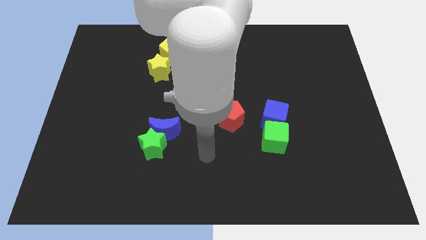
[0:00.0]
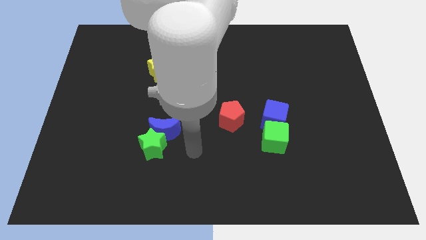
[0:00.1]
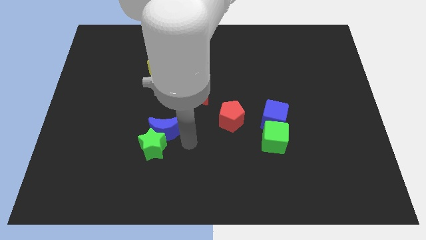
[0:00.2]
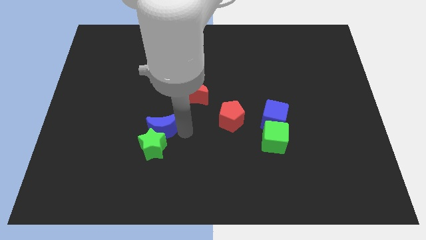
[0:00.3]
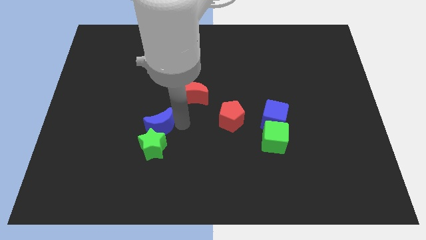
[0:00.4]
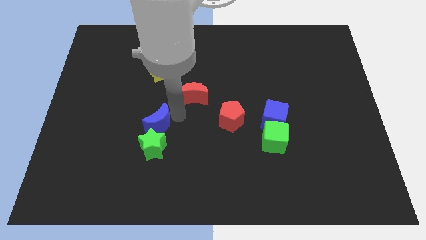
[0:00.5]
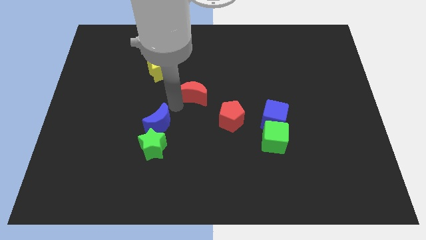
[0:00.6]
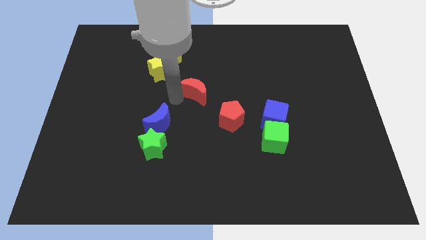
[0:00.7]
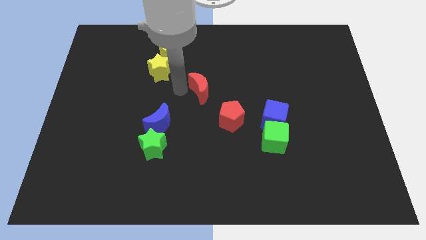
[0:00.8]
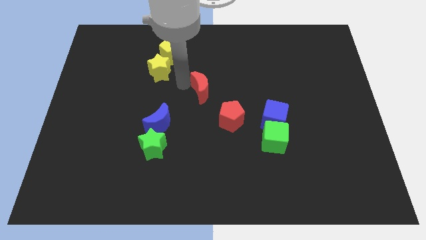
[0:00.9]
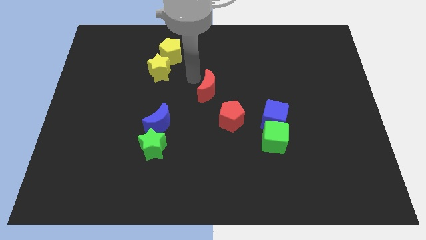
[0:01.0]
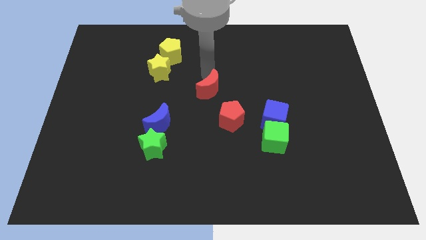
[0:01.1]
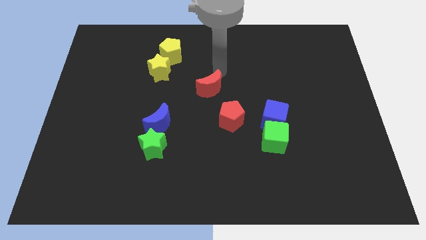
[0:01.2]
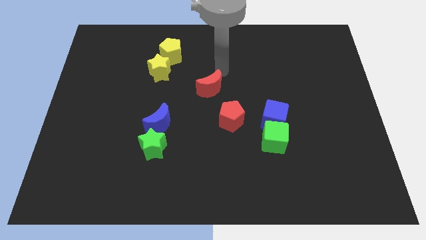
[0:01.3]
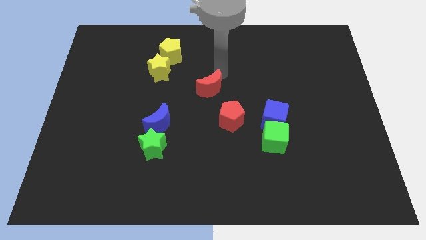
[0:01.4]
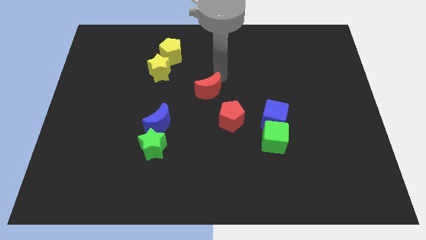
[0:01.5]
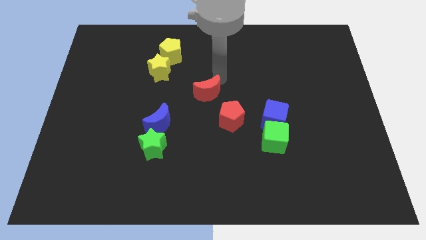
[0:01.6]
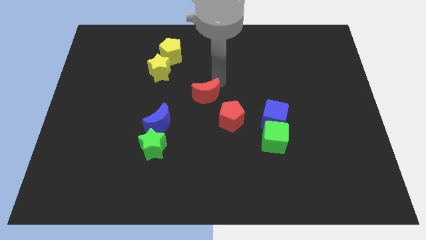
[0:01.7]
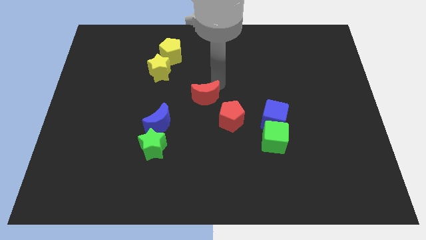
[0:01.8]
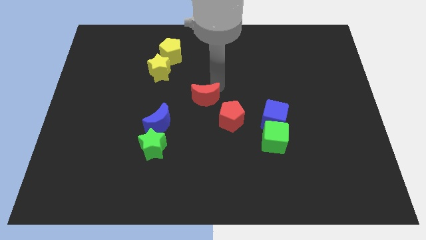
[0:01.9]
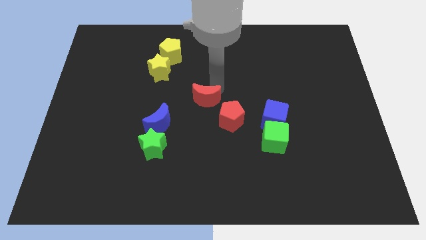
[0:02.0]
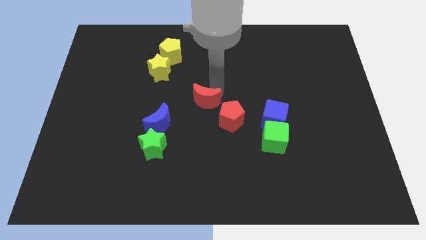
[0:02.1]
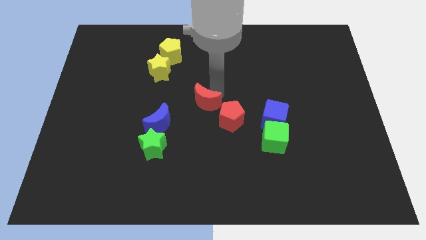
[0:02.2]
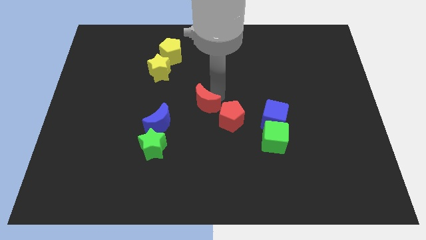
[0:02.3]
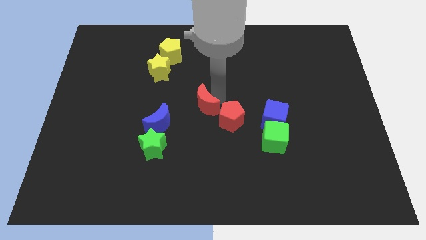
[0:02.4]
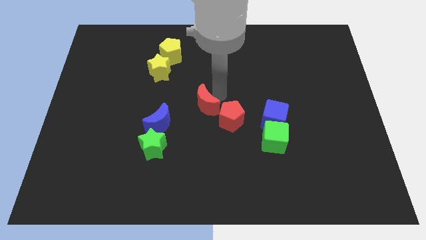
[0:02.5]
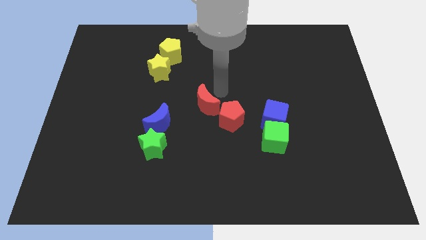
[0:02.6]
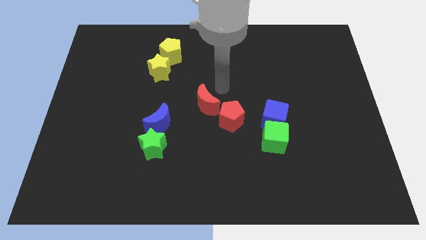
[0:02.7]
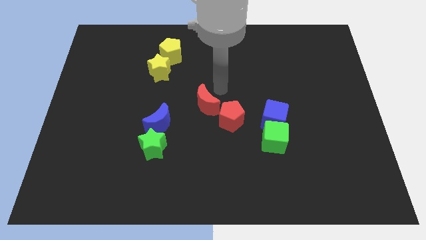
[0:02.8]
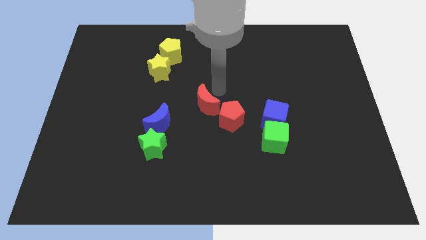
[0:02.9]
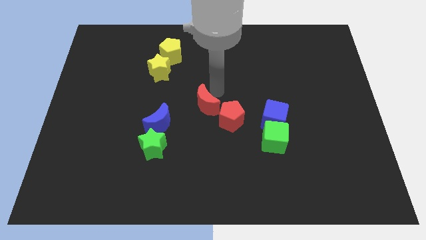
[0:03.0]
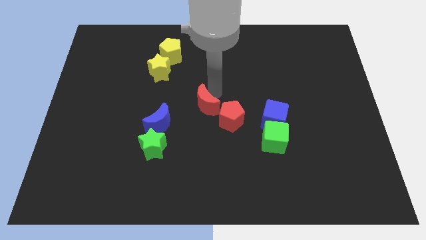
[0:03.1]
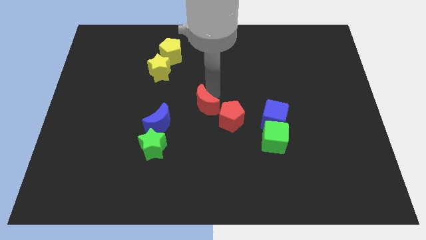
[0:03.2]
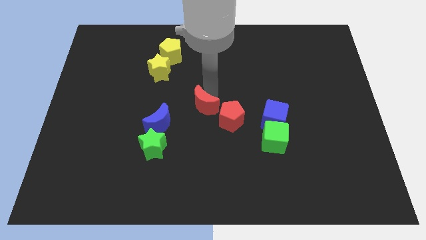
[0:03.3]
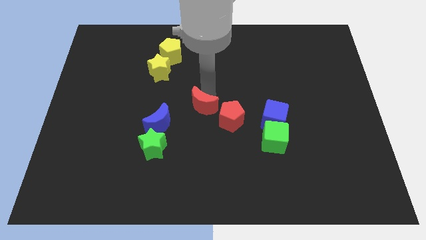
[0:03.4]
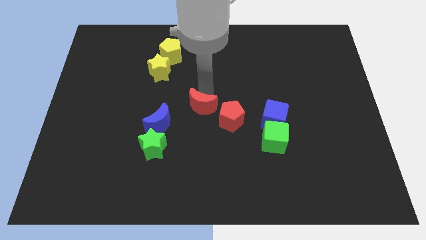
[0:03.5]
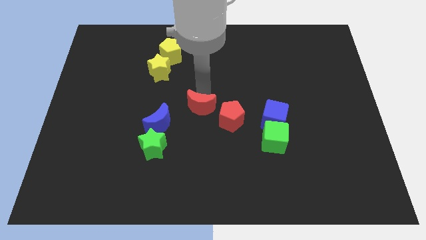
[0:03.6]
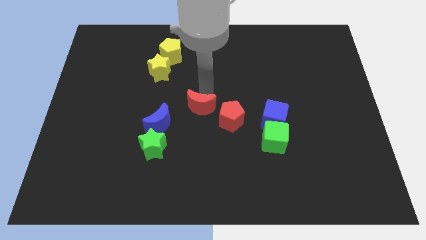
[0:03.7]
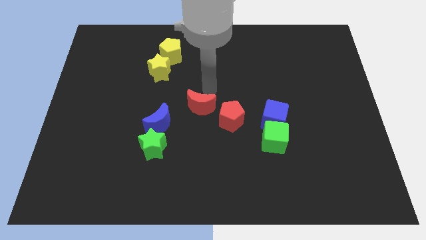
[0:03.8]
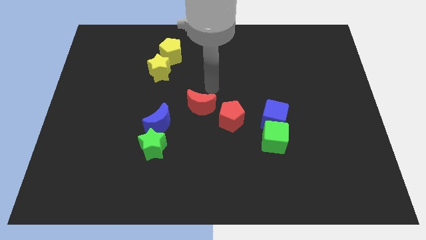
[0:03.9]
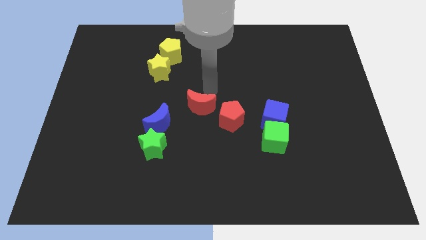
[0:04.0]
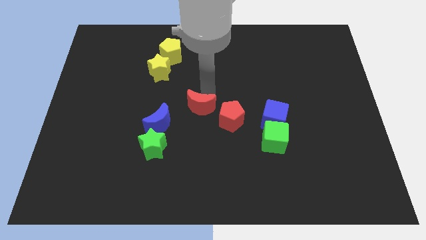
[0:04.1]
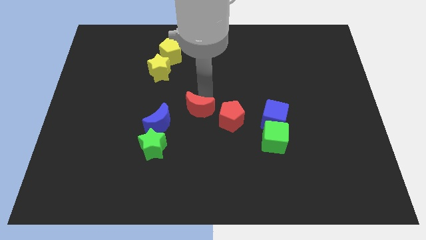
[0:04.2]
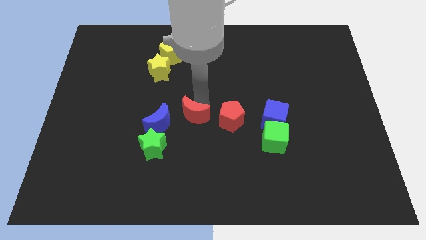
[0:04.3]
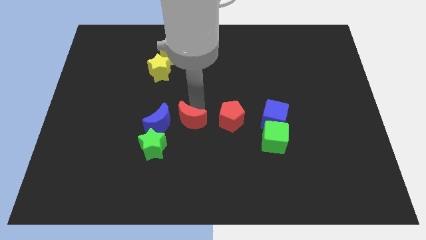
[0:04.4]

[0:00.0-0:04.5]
slide the red moon somewhat down

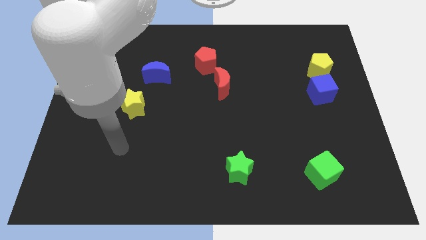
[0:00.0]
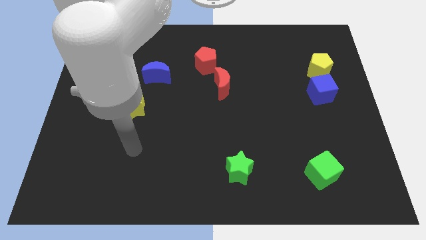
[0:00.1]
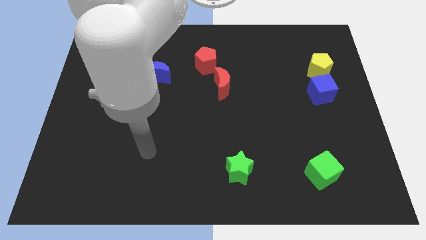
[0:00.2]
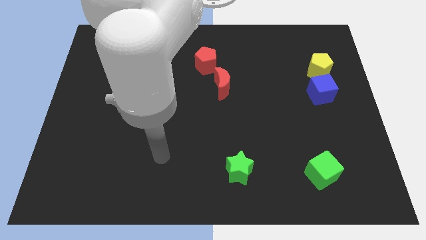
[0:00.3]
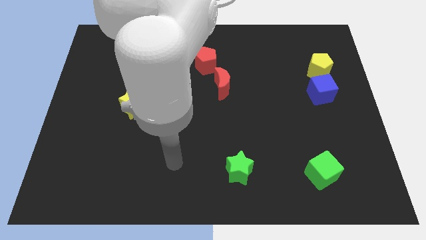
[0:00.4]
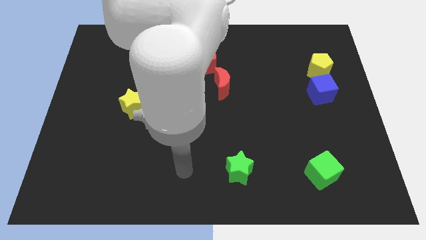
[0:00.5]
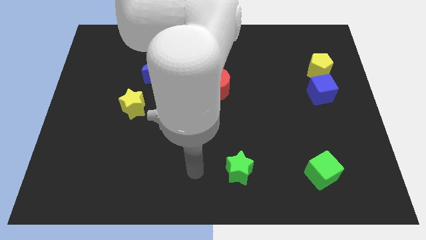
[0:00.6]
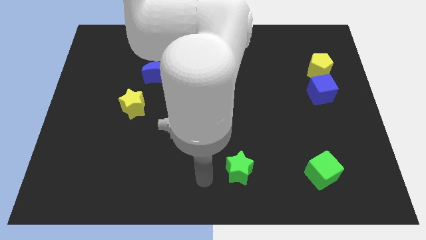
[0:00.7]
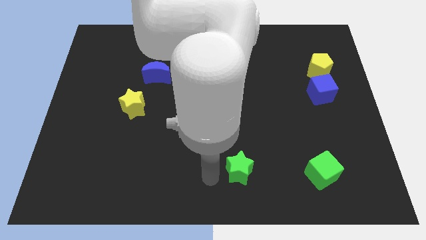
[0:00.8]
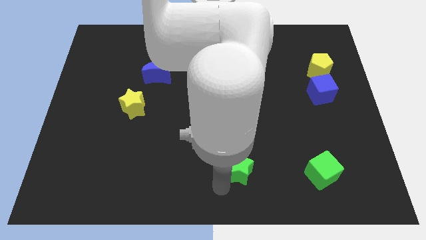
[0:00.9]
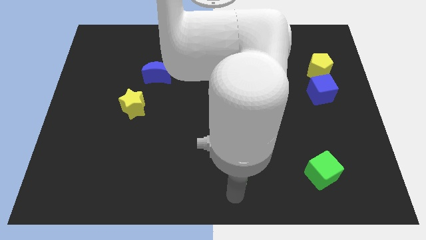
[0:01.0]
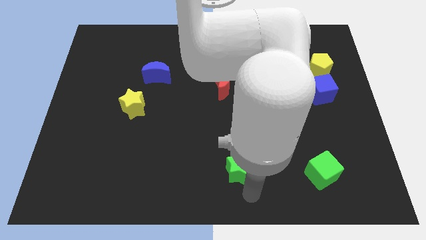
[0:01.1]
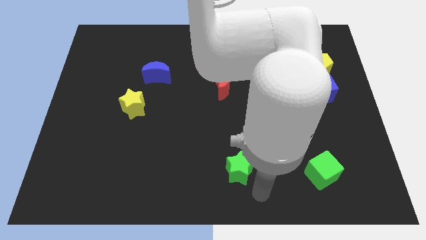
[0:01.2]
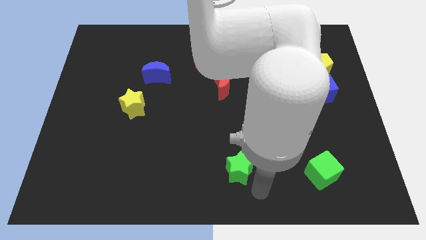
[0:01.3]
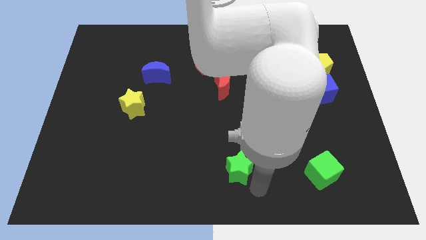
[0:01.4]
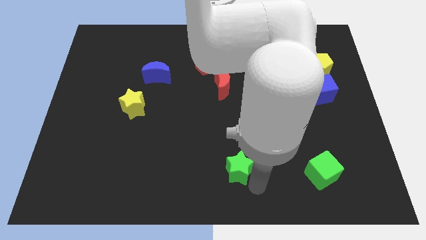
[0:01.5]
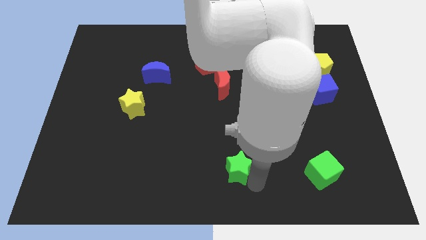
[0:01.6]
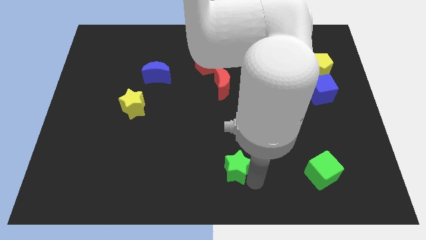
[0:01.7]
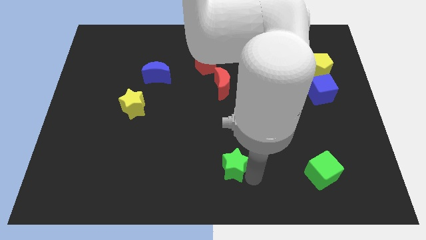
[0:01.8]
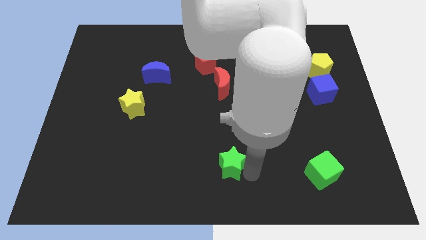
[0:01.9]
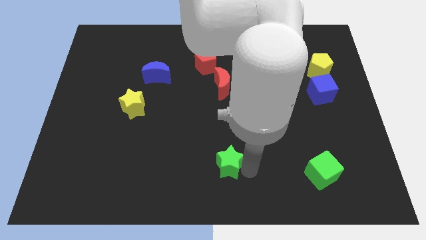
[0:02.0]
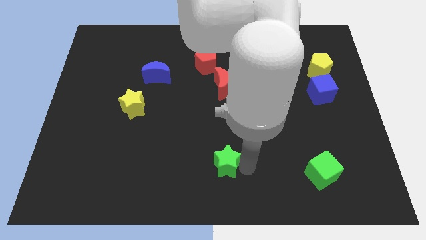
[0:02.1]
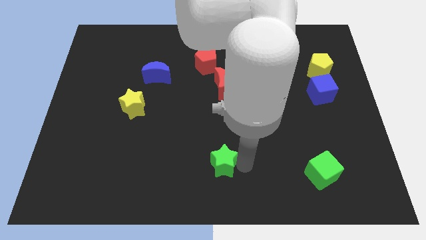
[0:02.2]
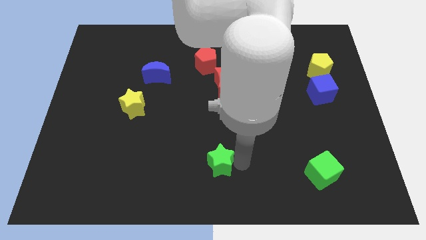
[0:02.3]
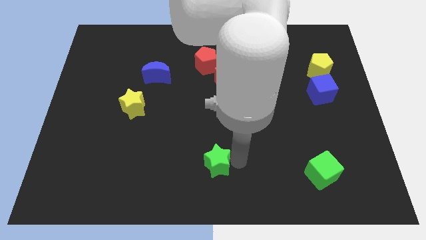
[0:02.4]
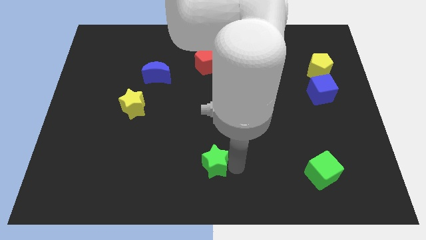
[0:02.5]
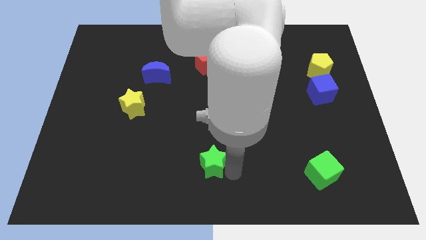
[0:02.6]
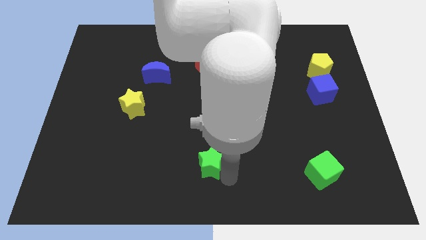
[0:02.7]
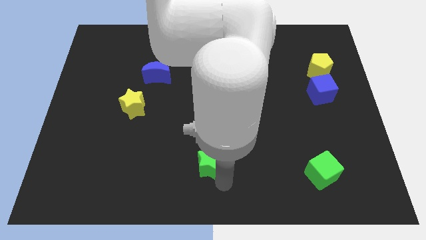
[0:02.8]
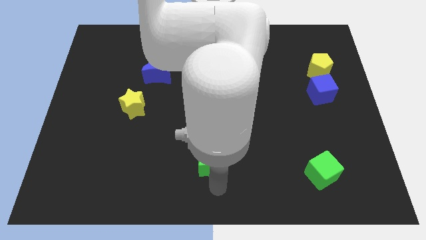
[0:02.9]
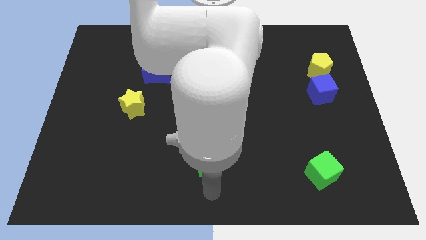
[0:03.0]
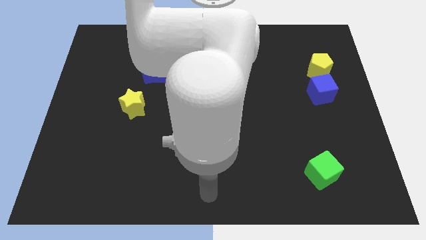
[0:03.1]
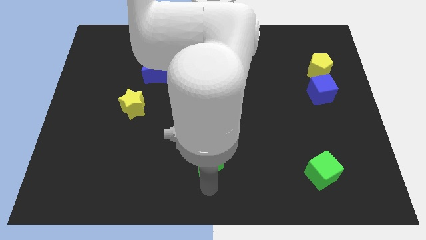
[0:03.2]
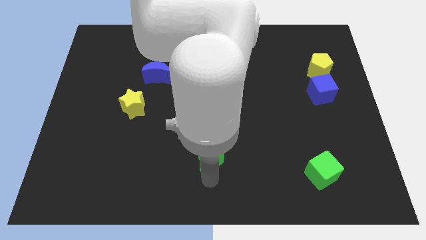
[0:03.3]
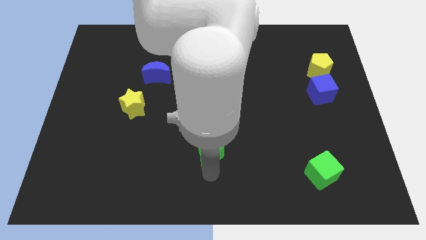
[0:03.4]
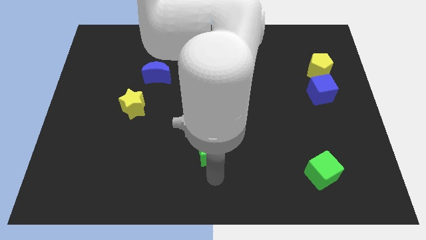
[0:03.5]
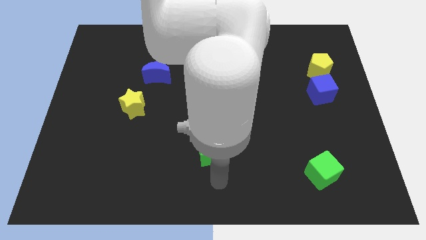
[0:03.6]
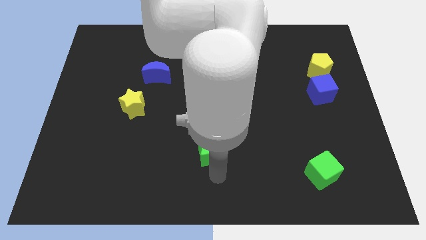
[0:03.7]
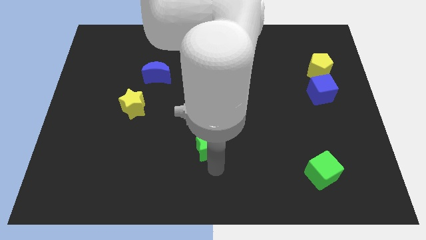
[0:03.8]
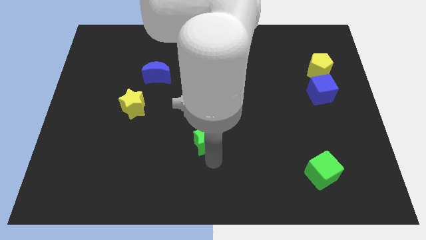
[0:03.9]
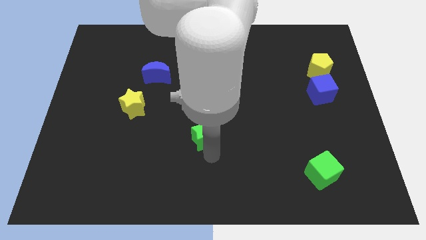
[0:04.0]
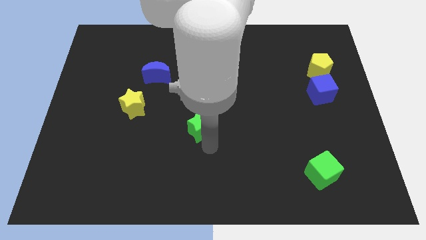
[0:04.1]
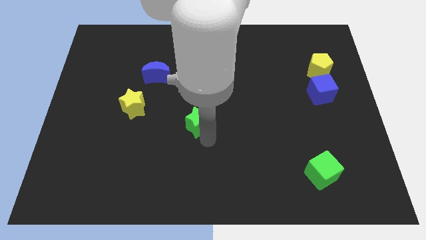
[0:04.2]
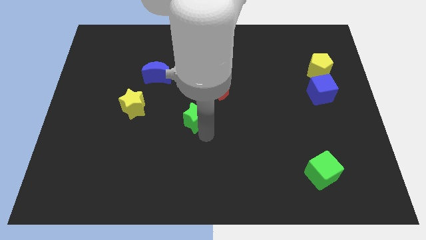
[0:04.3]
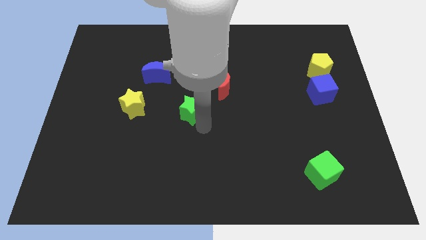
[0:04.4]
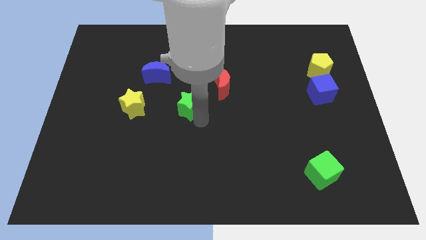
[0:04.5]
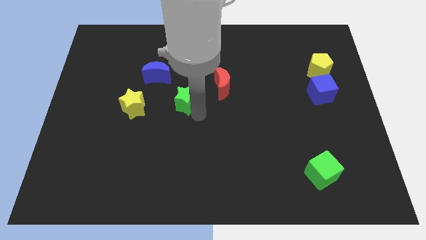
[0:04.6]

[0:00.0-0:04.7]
push the green star up and then to the left
